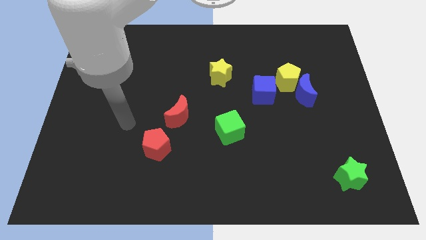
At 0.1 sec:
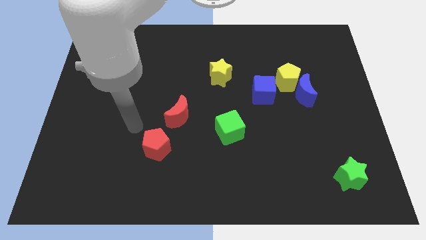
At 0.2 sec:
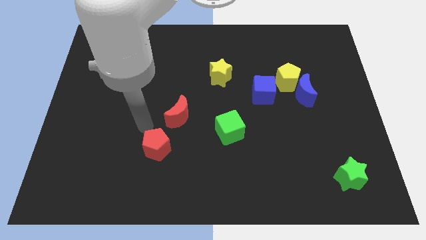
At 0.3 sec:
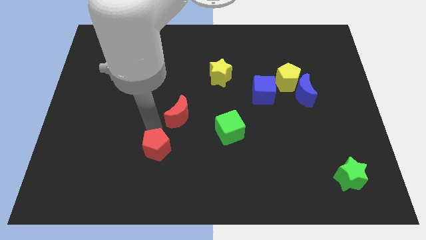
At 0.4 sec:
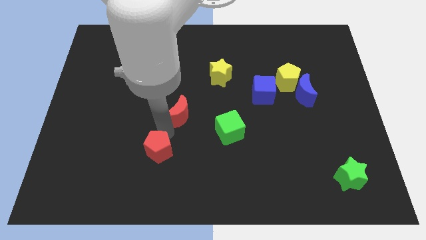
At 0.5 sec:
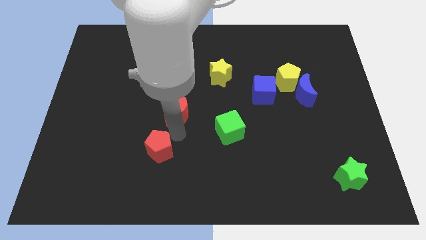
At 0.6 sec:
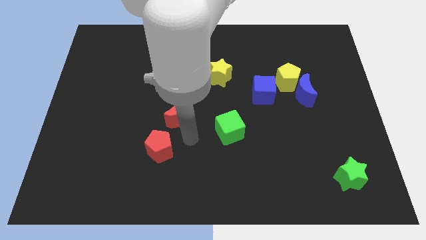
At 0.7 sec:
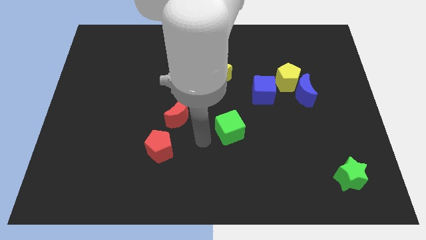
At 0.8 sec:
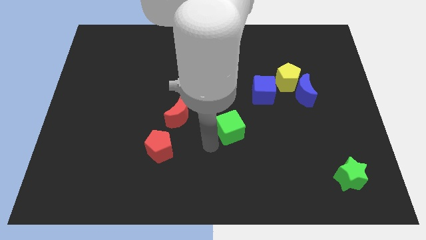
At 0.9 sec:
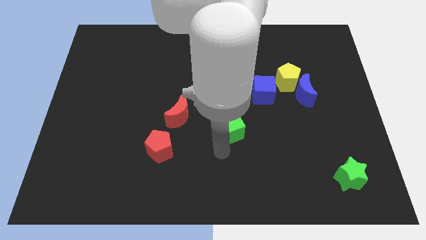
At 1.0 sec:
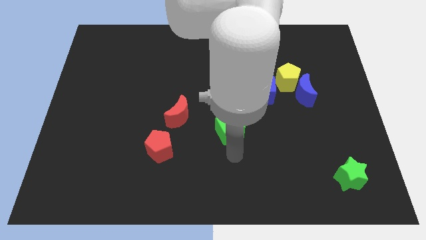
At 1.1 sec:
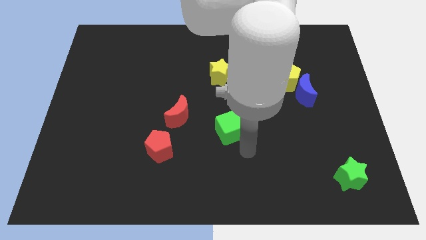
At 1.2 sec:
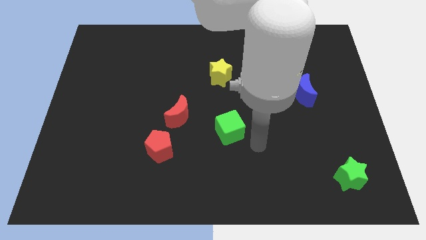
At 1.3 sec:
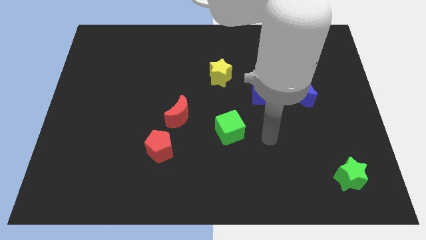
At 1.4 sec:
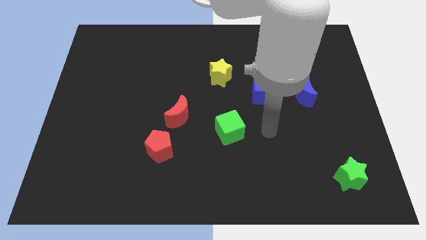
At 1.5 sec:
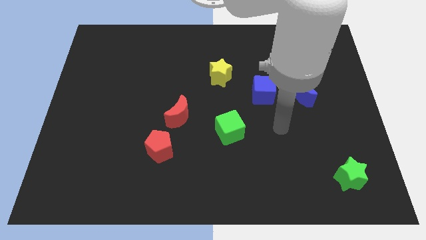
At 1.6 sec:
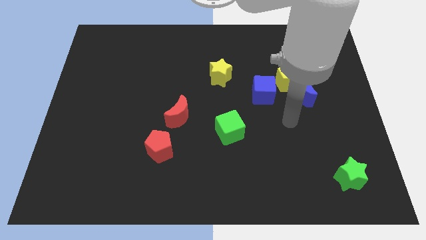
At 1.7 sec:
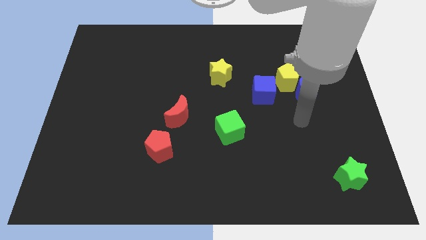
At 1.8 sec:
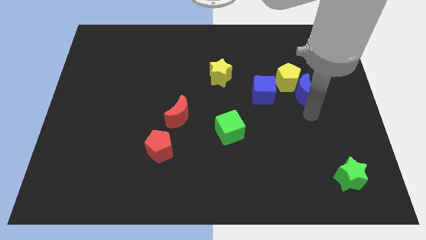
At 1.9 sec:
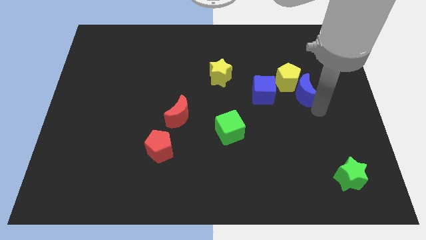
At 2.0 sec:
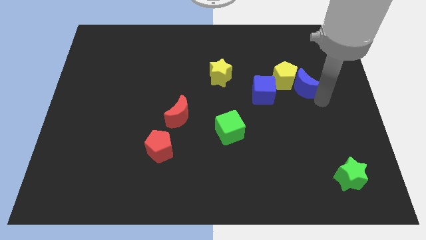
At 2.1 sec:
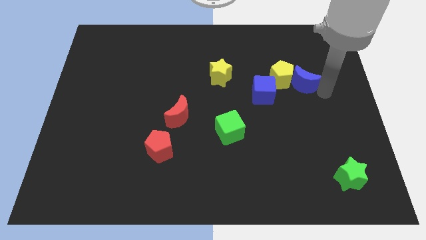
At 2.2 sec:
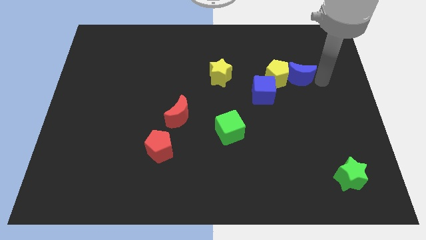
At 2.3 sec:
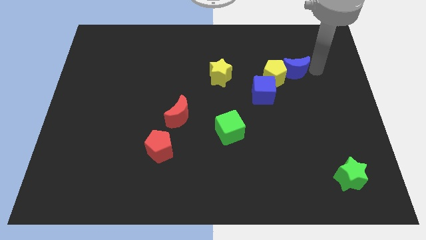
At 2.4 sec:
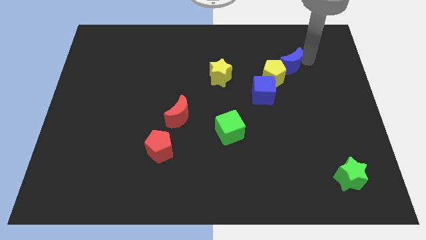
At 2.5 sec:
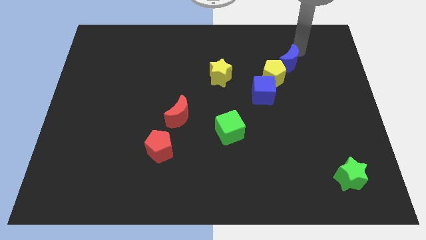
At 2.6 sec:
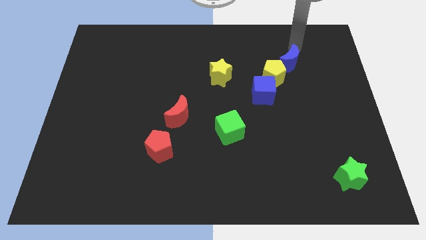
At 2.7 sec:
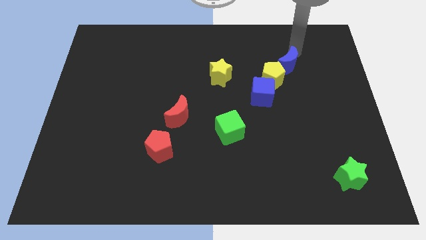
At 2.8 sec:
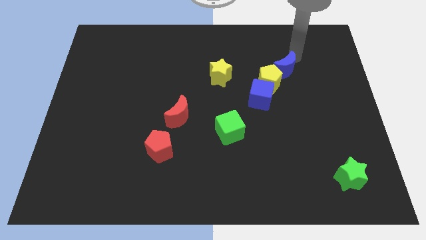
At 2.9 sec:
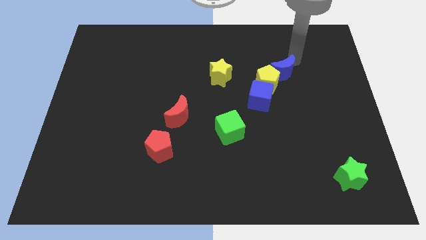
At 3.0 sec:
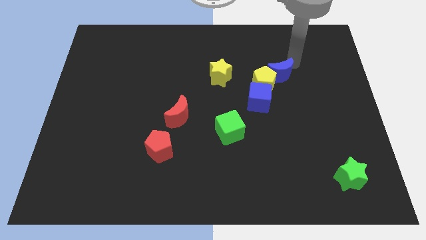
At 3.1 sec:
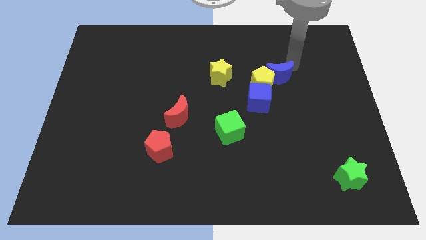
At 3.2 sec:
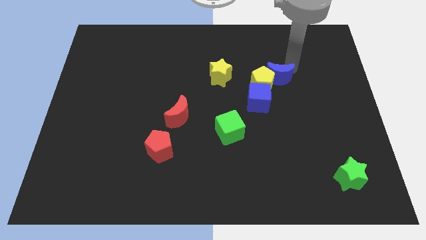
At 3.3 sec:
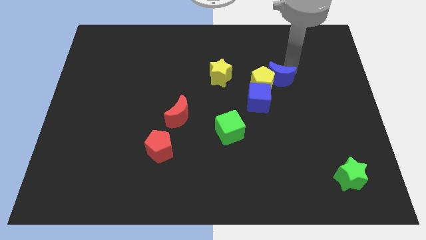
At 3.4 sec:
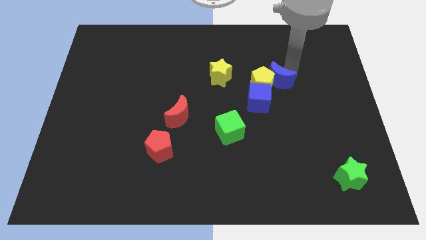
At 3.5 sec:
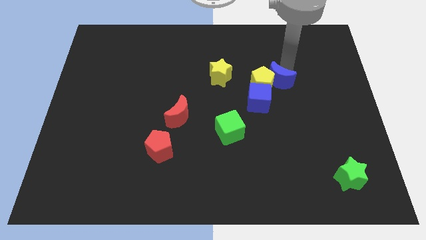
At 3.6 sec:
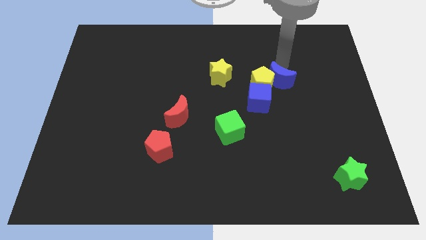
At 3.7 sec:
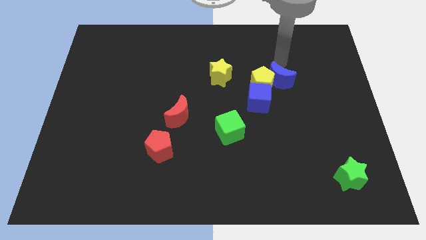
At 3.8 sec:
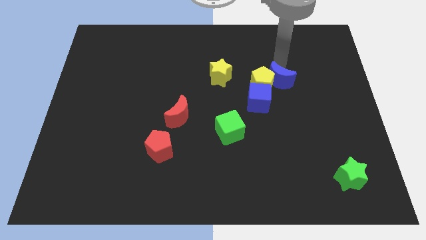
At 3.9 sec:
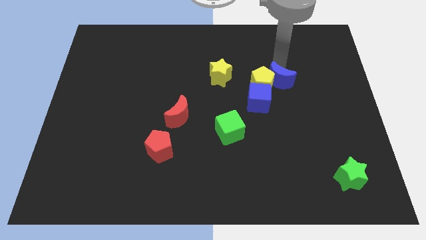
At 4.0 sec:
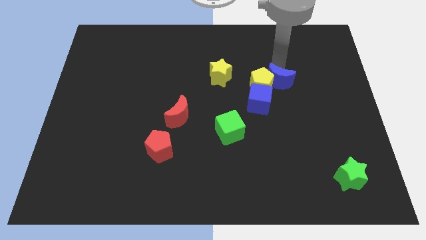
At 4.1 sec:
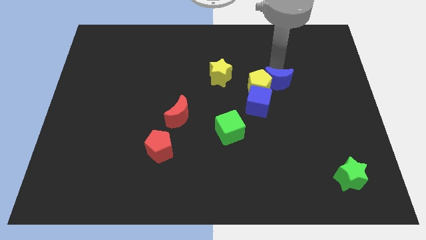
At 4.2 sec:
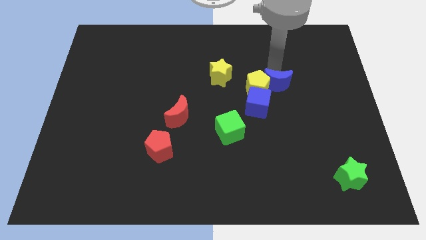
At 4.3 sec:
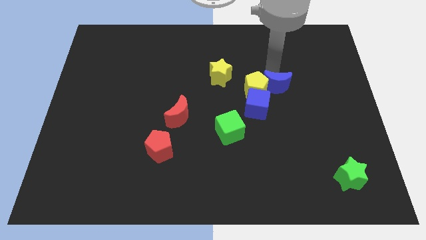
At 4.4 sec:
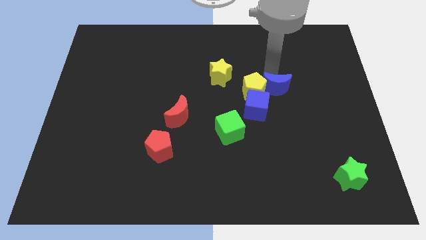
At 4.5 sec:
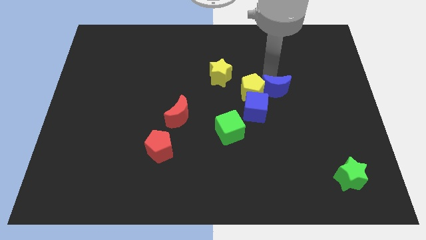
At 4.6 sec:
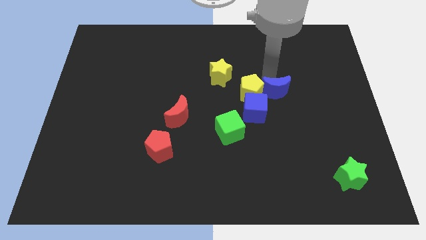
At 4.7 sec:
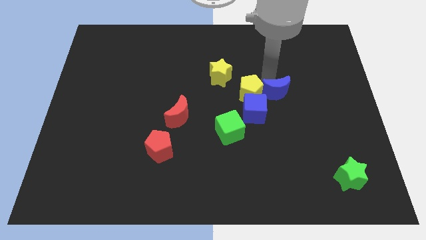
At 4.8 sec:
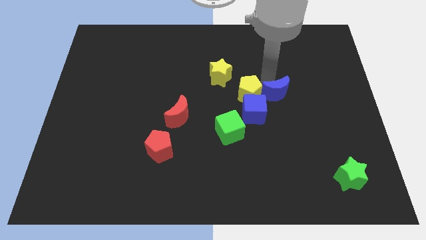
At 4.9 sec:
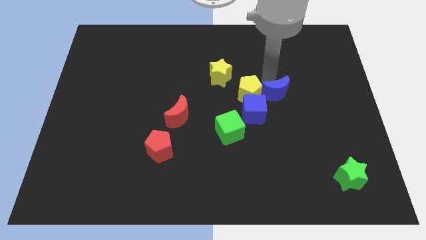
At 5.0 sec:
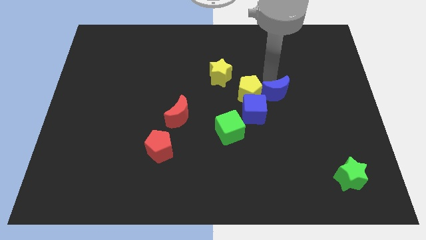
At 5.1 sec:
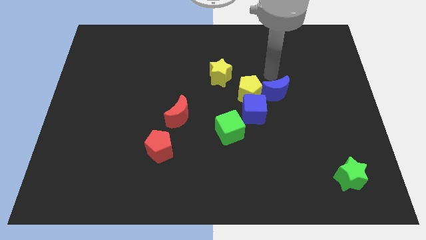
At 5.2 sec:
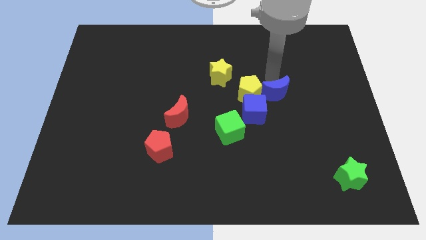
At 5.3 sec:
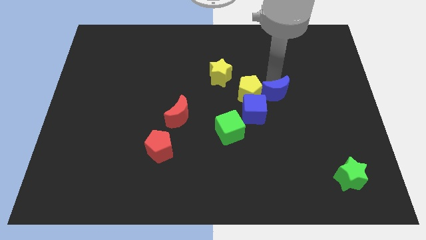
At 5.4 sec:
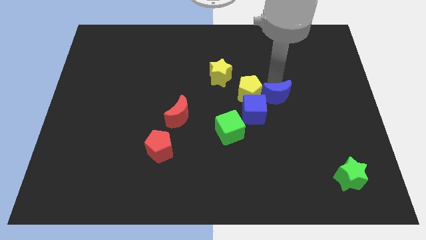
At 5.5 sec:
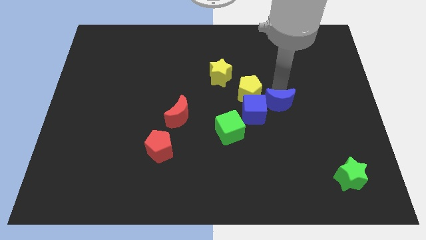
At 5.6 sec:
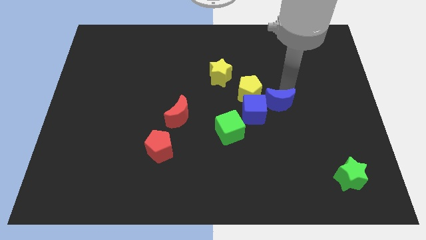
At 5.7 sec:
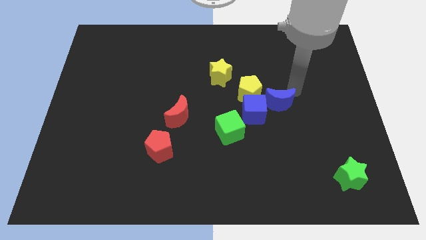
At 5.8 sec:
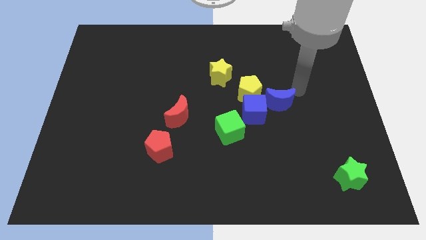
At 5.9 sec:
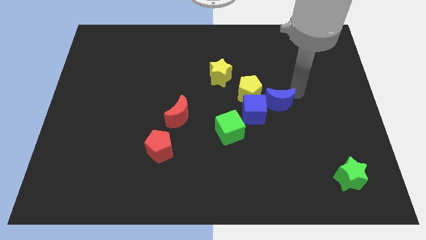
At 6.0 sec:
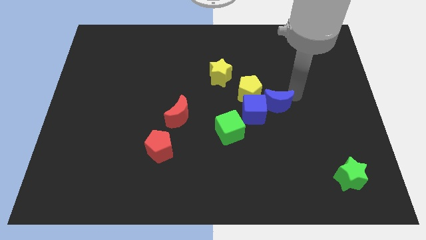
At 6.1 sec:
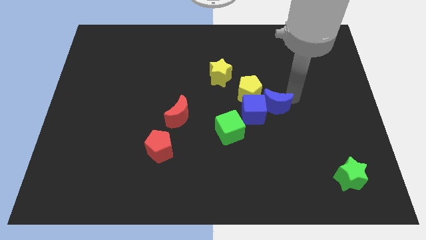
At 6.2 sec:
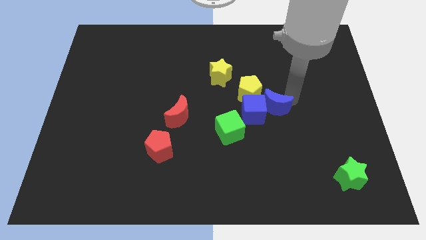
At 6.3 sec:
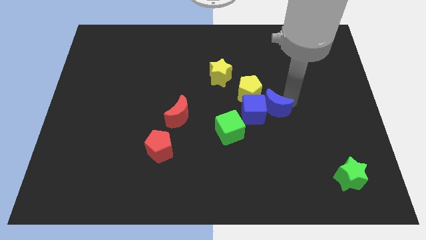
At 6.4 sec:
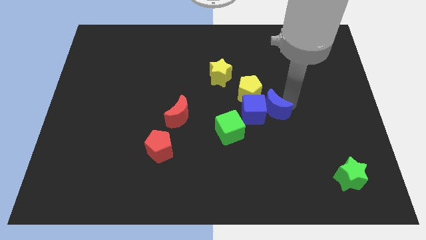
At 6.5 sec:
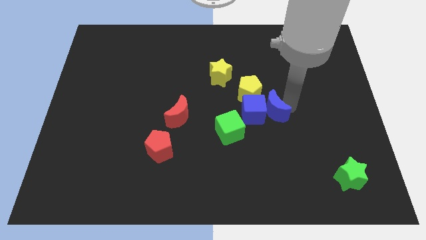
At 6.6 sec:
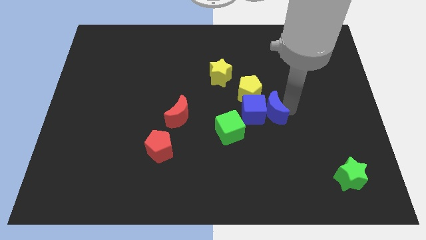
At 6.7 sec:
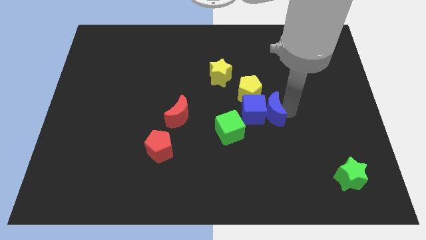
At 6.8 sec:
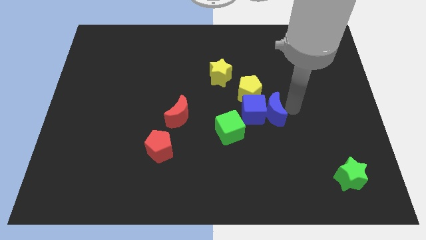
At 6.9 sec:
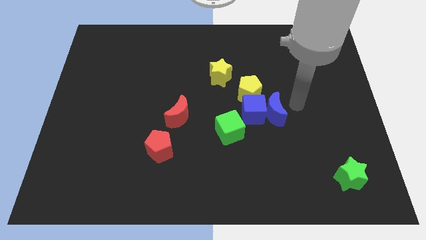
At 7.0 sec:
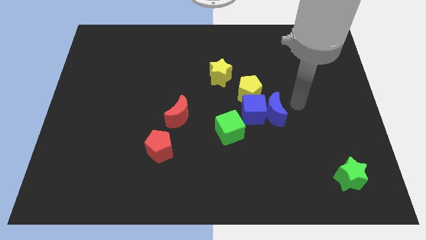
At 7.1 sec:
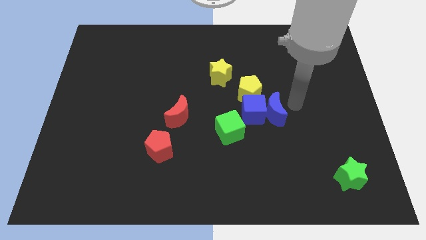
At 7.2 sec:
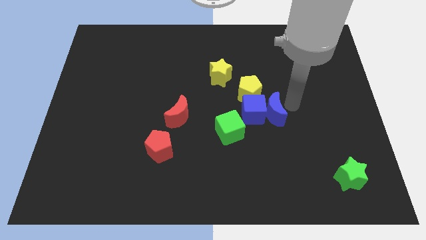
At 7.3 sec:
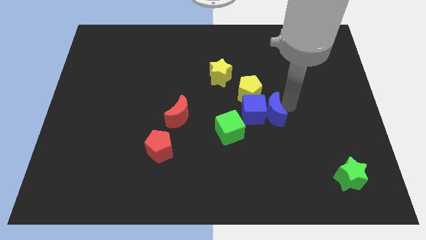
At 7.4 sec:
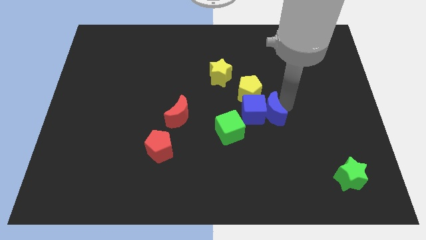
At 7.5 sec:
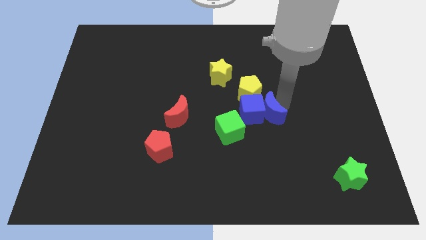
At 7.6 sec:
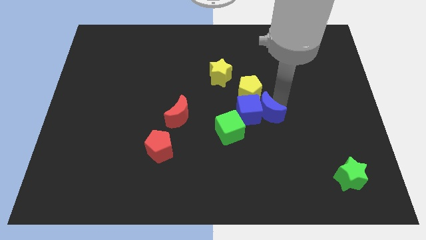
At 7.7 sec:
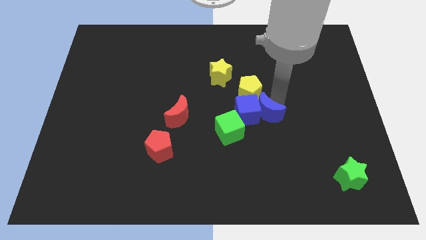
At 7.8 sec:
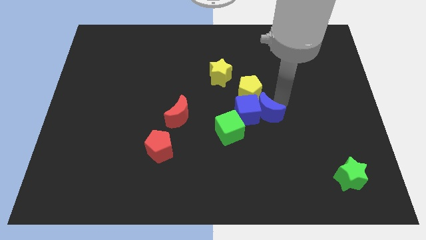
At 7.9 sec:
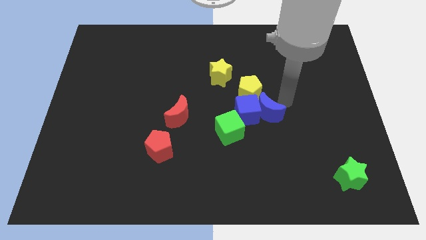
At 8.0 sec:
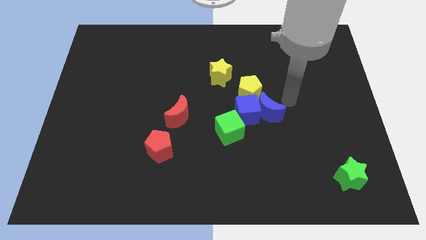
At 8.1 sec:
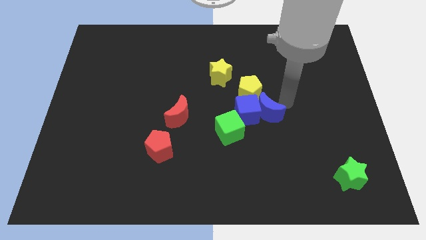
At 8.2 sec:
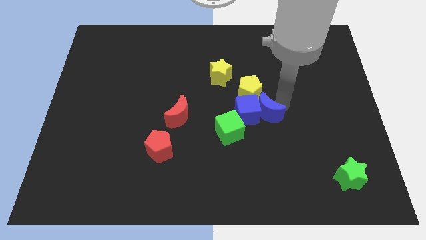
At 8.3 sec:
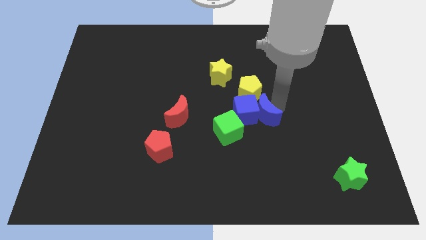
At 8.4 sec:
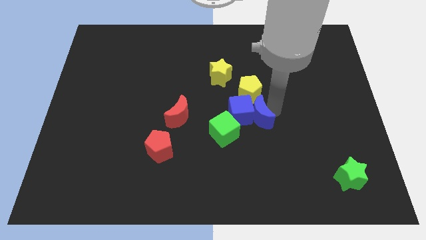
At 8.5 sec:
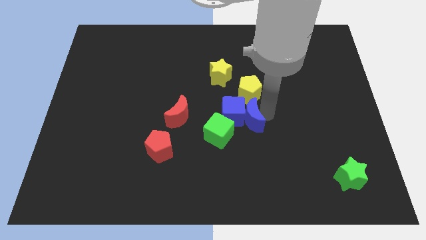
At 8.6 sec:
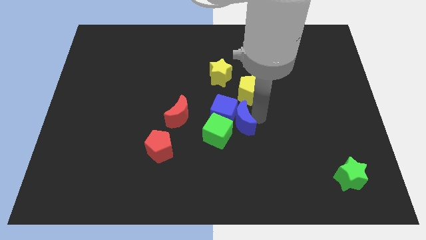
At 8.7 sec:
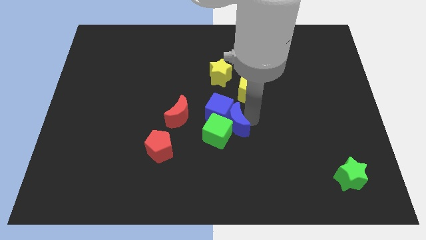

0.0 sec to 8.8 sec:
put the blue moon towards the green cube
